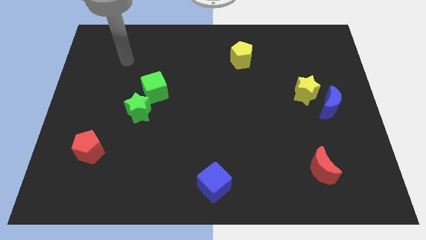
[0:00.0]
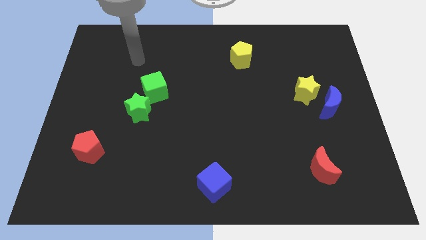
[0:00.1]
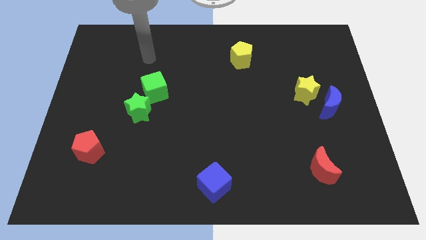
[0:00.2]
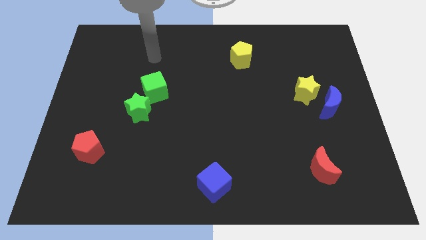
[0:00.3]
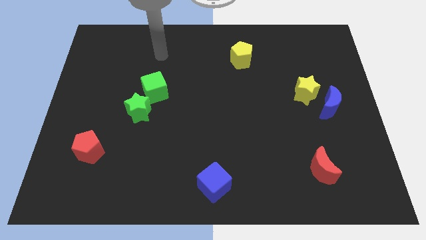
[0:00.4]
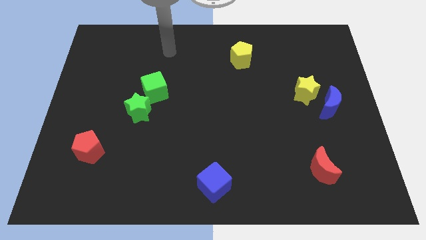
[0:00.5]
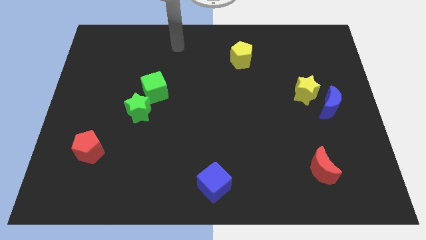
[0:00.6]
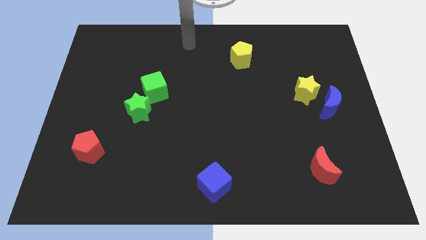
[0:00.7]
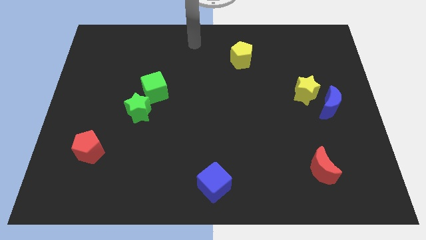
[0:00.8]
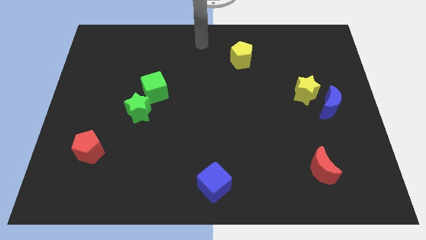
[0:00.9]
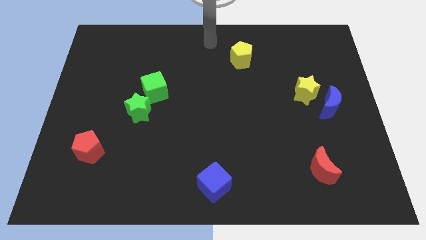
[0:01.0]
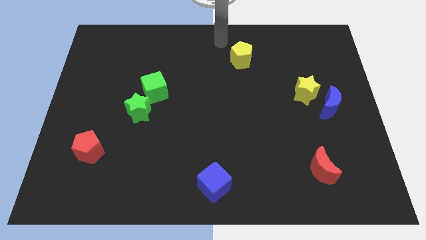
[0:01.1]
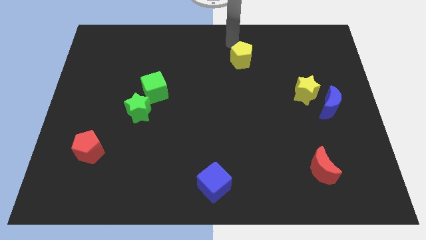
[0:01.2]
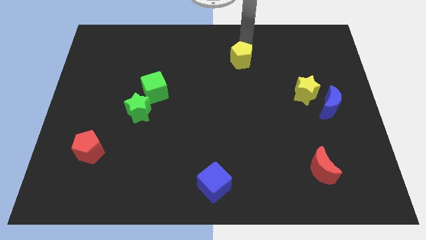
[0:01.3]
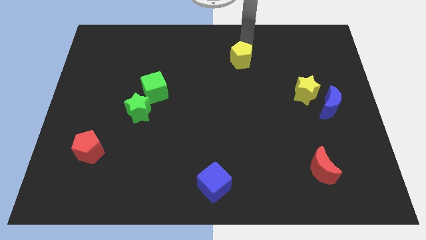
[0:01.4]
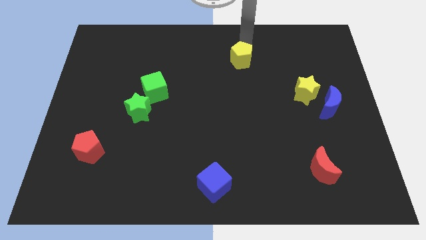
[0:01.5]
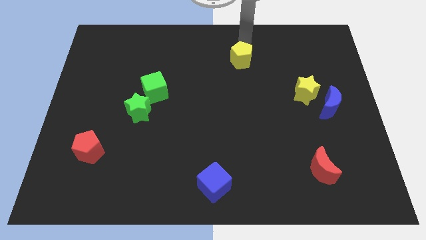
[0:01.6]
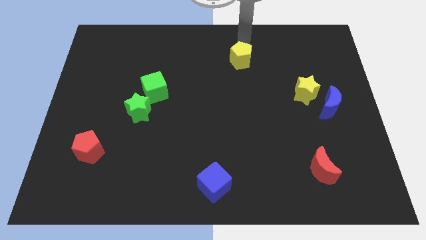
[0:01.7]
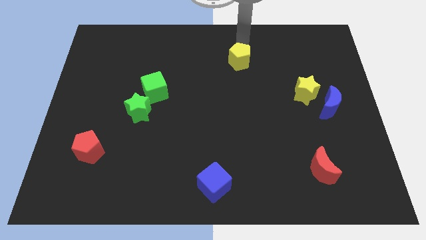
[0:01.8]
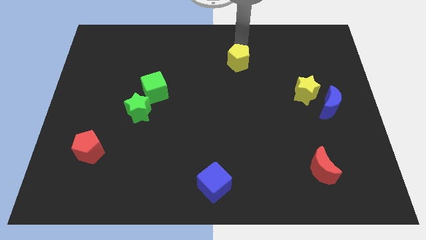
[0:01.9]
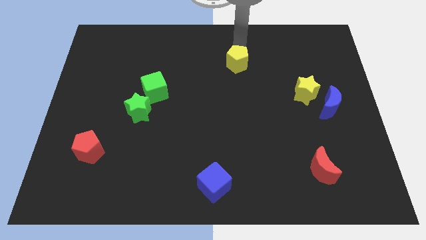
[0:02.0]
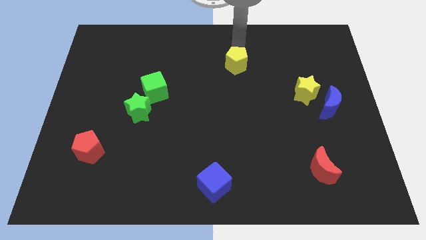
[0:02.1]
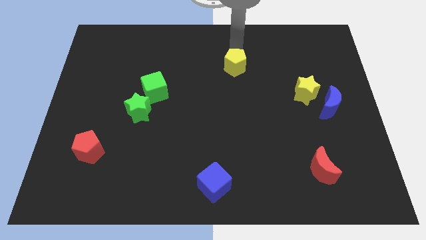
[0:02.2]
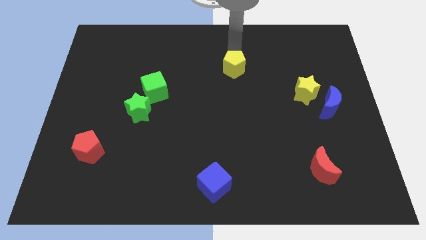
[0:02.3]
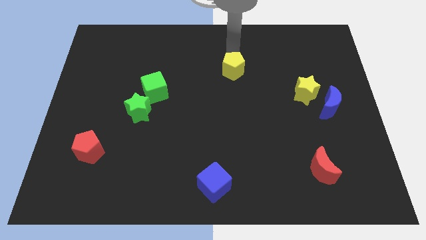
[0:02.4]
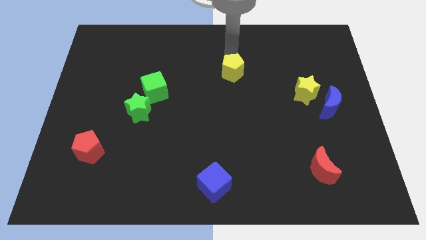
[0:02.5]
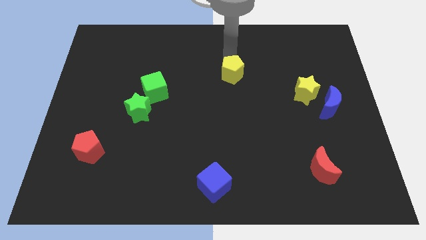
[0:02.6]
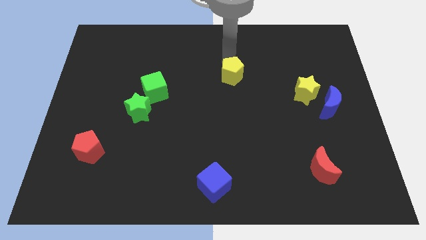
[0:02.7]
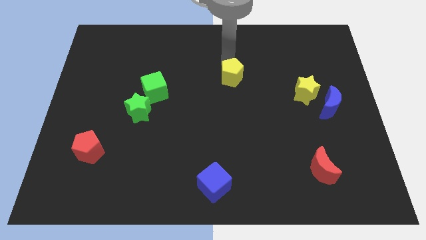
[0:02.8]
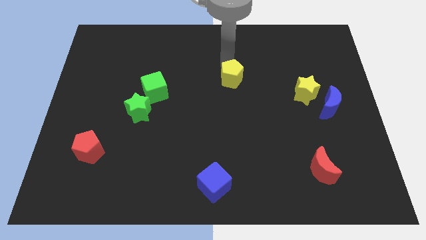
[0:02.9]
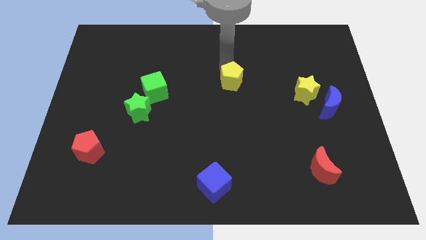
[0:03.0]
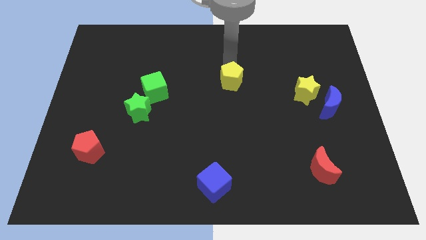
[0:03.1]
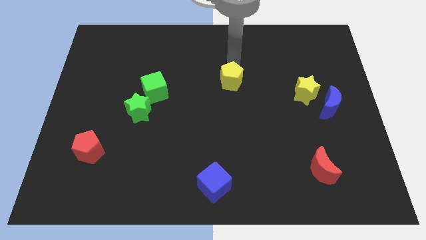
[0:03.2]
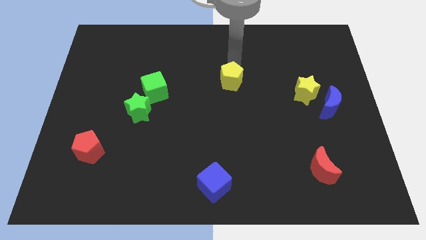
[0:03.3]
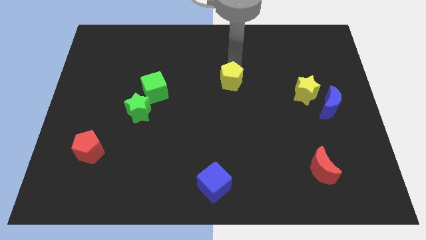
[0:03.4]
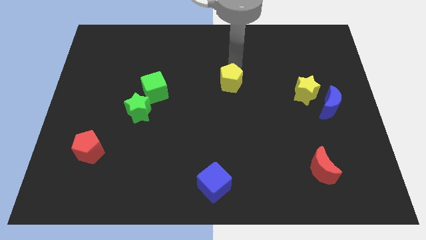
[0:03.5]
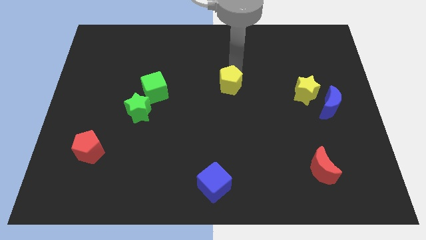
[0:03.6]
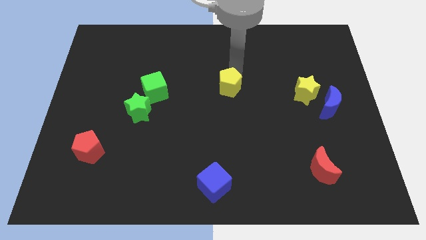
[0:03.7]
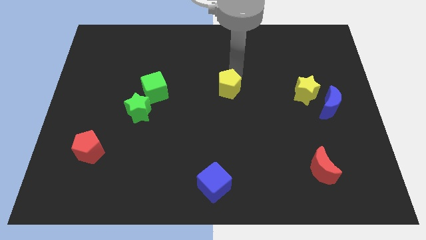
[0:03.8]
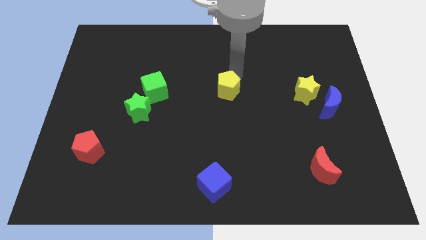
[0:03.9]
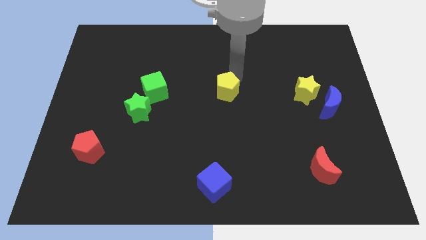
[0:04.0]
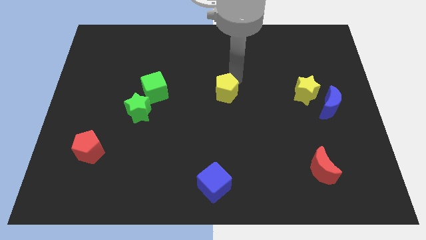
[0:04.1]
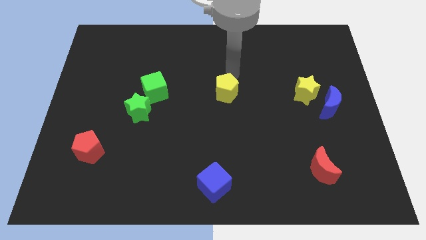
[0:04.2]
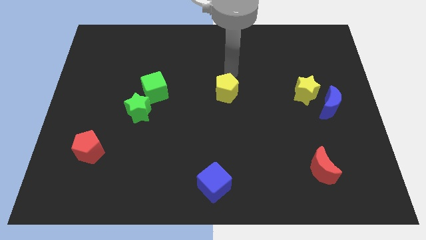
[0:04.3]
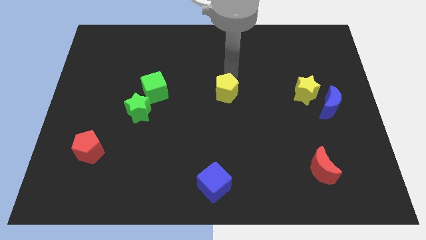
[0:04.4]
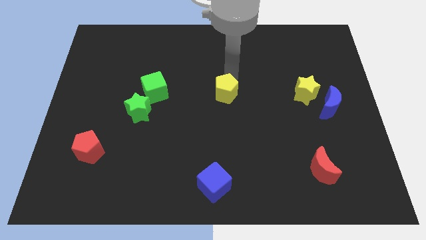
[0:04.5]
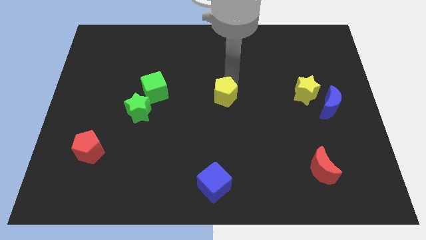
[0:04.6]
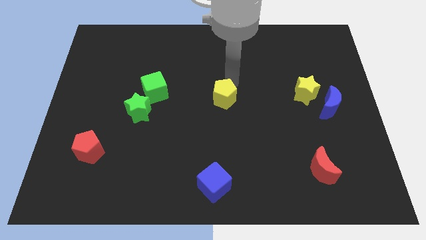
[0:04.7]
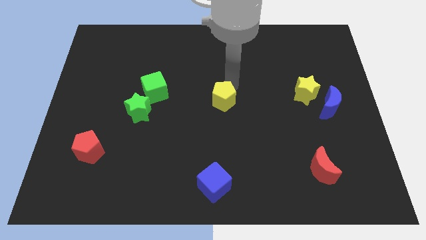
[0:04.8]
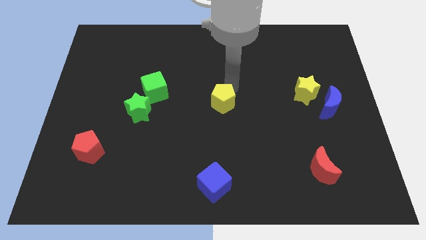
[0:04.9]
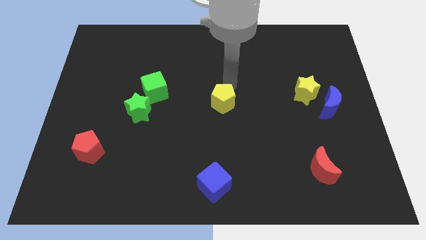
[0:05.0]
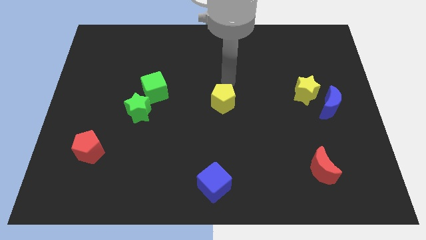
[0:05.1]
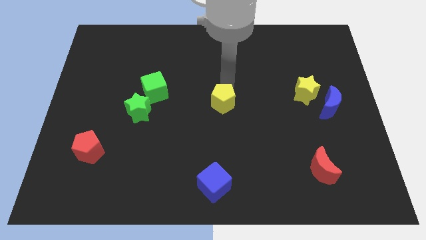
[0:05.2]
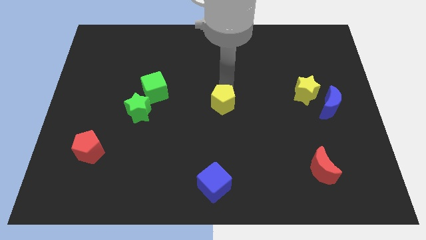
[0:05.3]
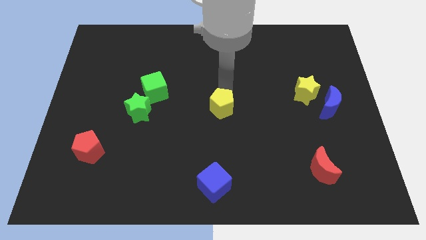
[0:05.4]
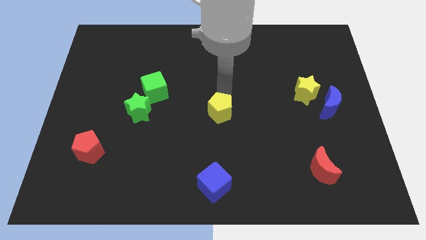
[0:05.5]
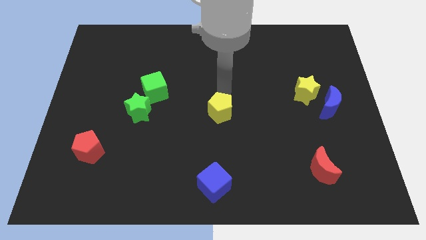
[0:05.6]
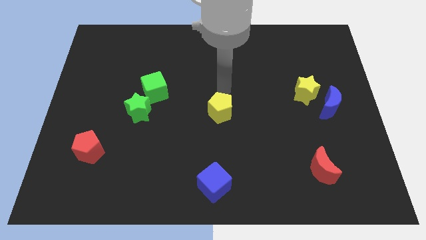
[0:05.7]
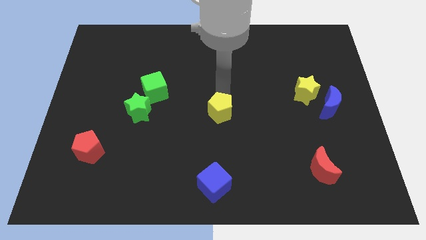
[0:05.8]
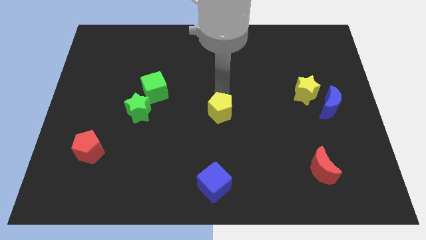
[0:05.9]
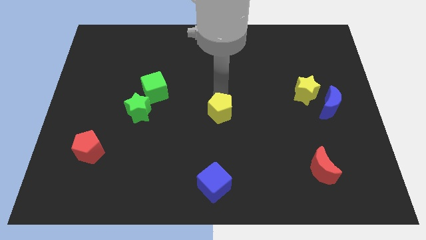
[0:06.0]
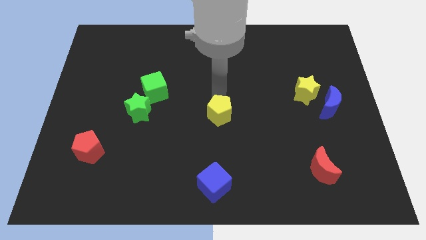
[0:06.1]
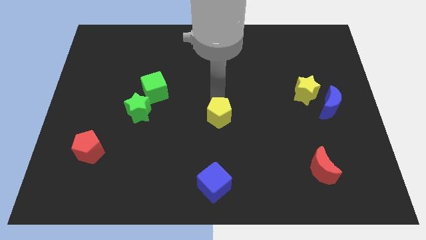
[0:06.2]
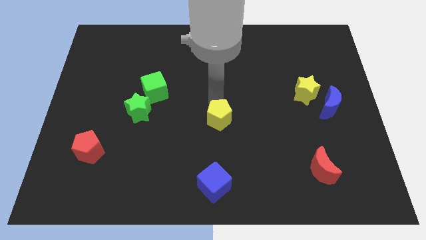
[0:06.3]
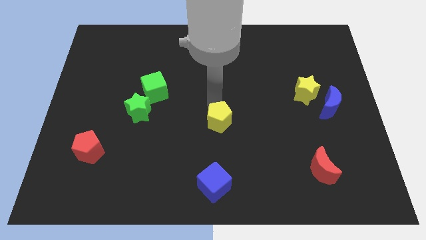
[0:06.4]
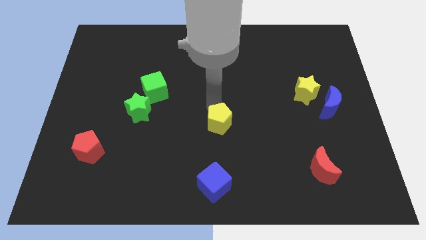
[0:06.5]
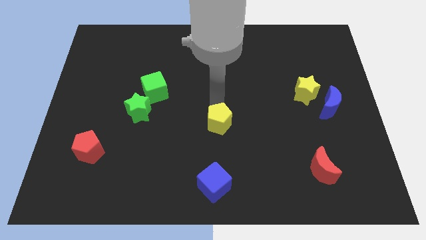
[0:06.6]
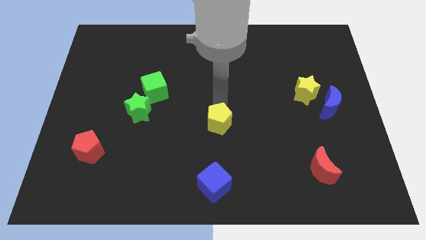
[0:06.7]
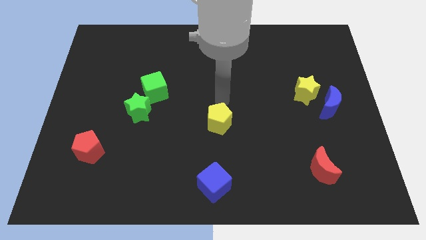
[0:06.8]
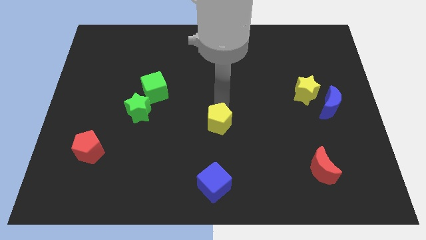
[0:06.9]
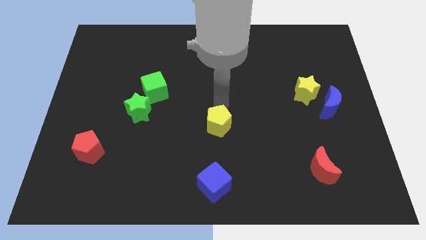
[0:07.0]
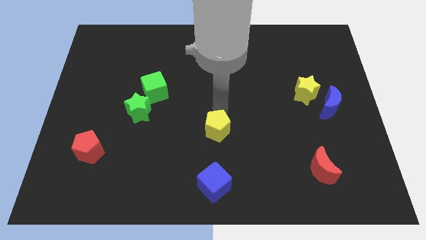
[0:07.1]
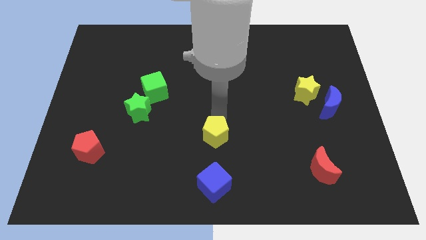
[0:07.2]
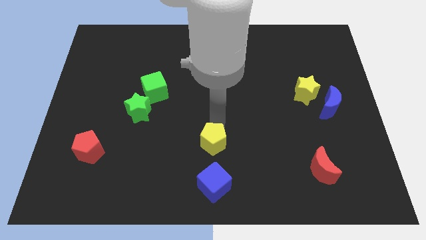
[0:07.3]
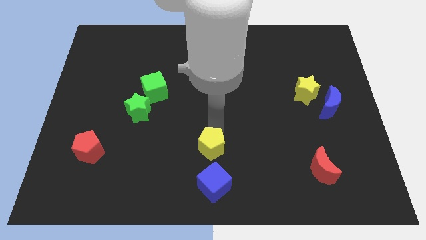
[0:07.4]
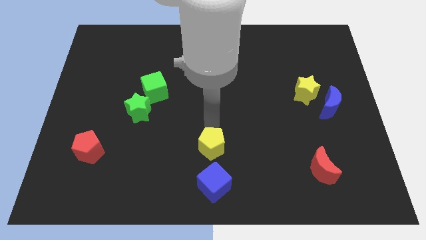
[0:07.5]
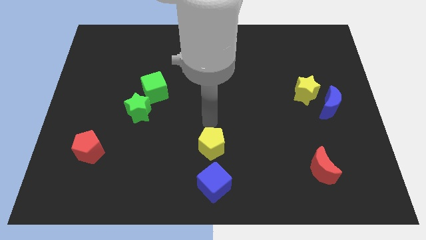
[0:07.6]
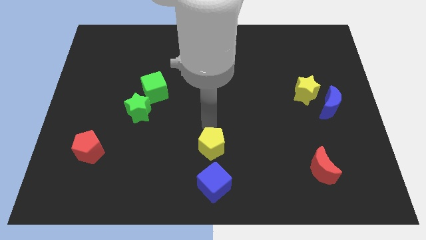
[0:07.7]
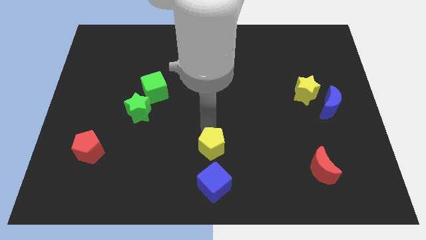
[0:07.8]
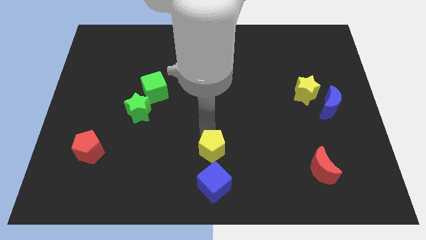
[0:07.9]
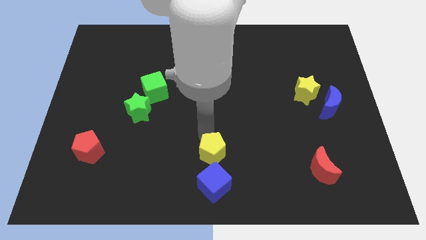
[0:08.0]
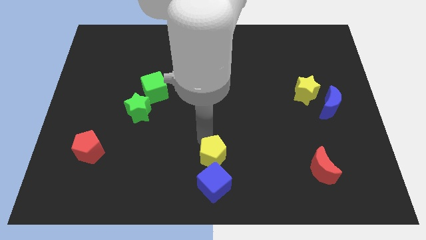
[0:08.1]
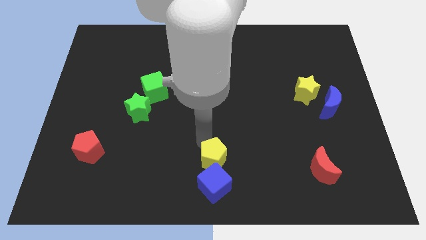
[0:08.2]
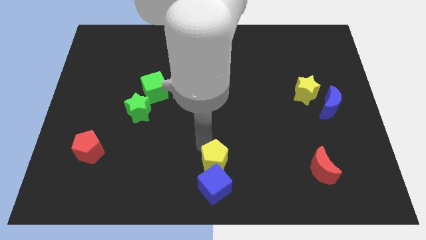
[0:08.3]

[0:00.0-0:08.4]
slide the yellow pentagon to the blue cube
